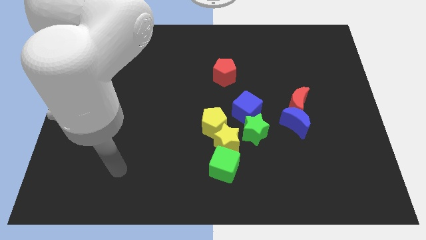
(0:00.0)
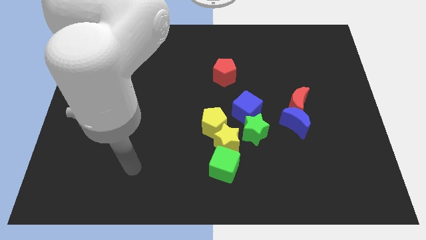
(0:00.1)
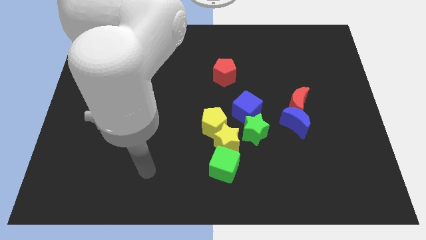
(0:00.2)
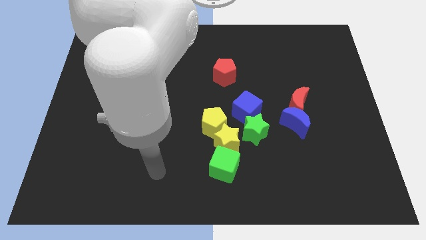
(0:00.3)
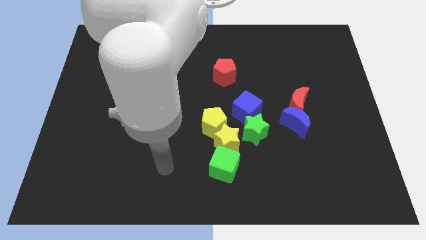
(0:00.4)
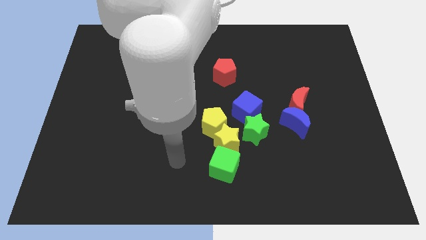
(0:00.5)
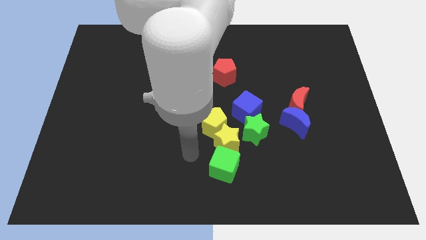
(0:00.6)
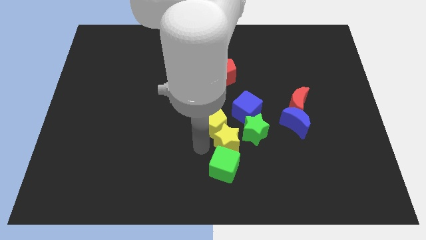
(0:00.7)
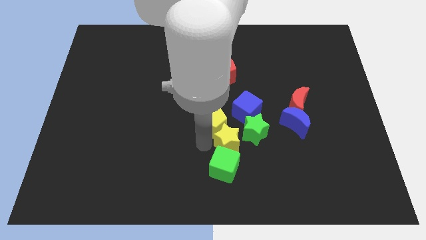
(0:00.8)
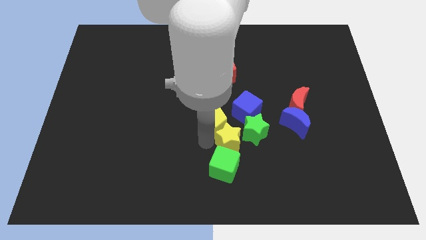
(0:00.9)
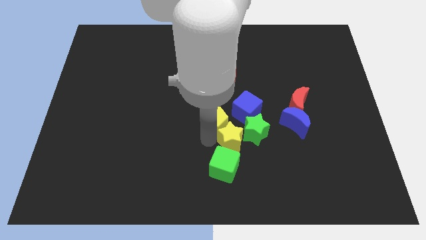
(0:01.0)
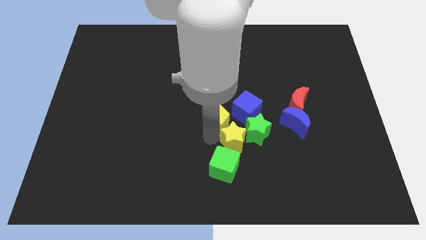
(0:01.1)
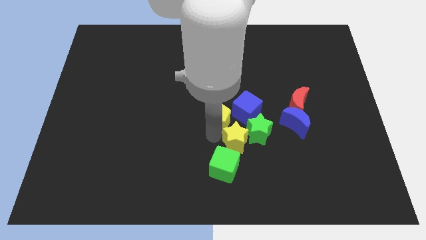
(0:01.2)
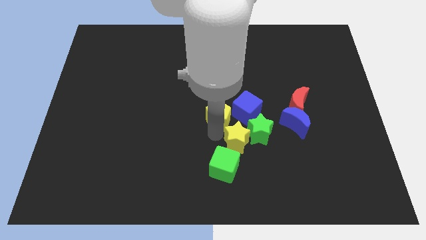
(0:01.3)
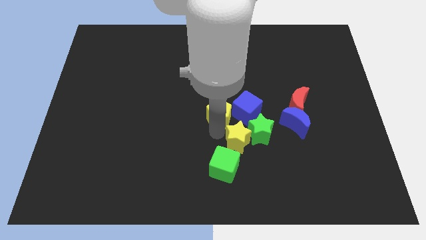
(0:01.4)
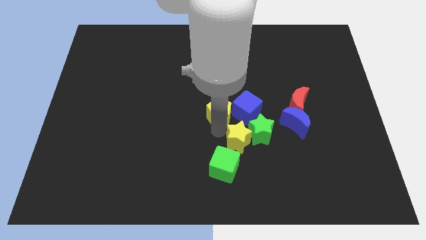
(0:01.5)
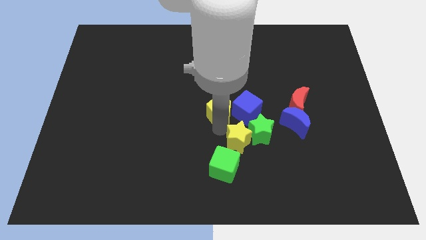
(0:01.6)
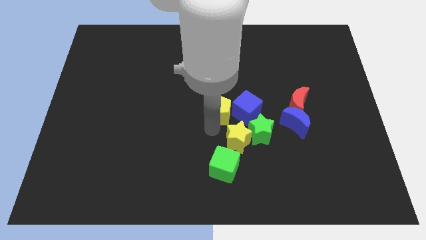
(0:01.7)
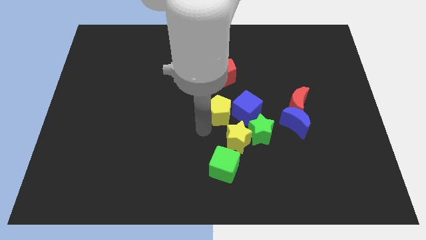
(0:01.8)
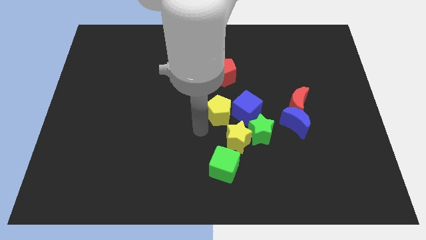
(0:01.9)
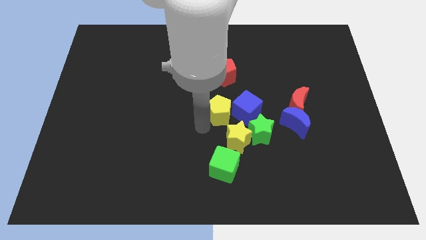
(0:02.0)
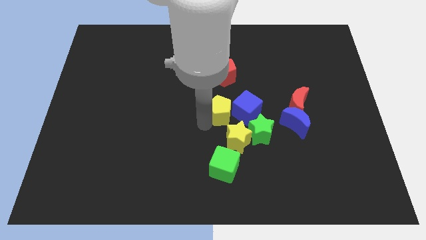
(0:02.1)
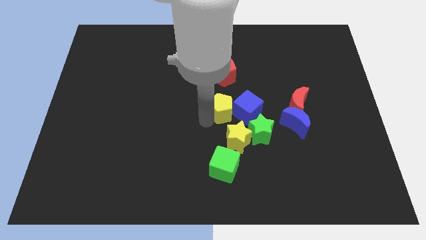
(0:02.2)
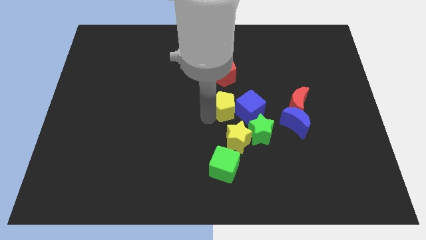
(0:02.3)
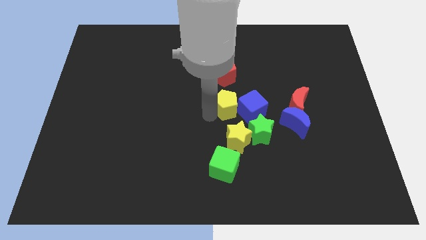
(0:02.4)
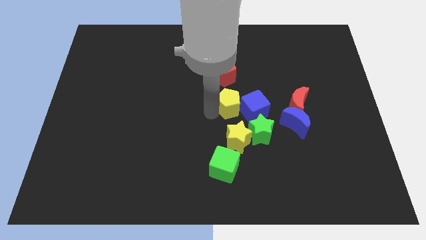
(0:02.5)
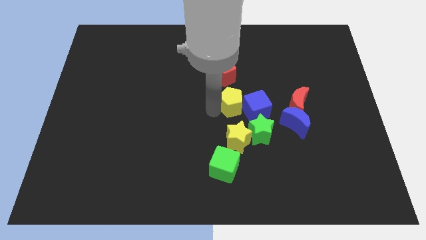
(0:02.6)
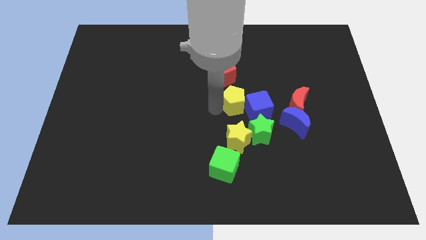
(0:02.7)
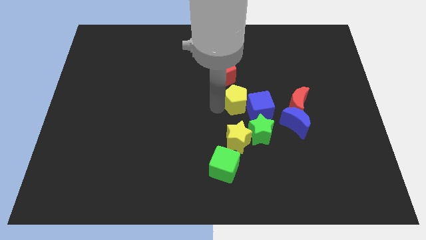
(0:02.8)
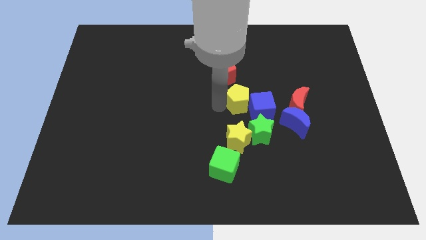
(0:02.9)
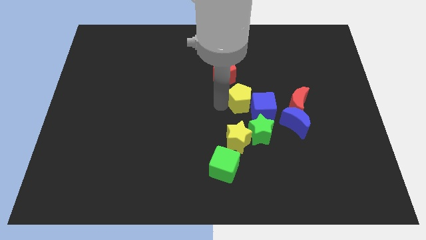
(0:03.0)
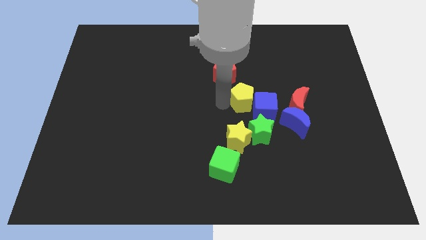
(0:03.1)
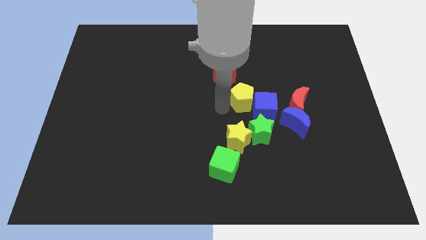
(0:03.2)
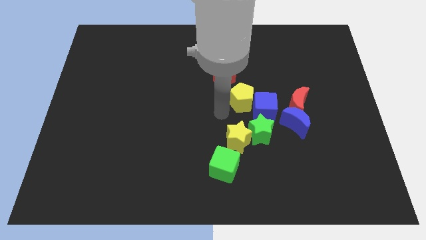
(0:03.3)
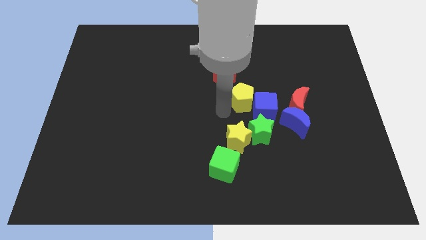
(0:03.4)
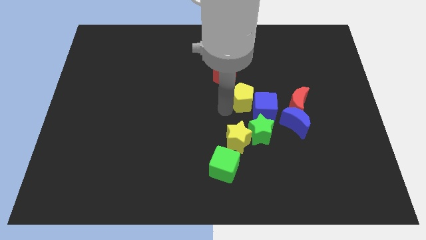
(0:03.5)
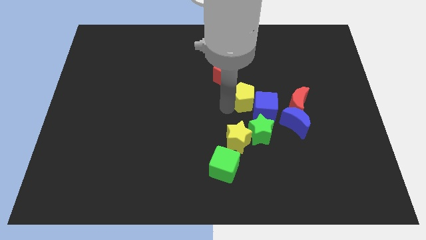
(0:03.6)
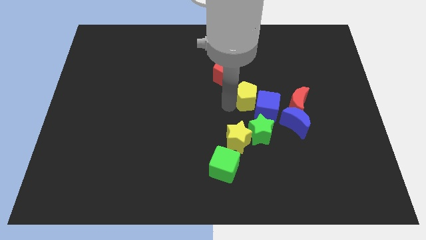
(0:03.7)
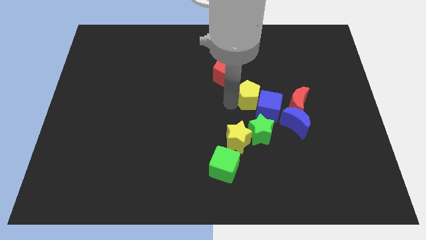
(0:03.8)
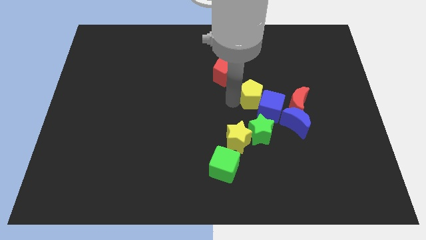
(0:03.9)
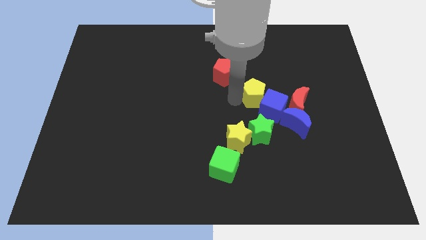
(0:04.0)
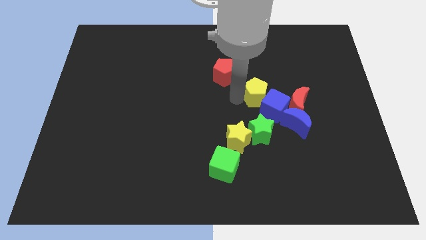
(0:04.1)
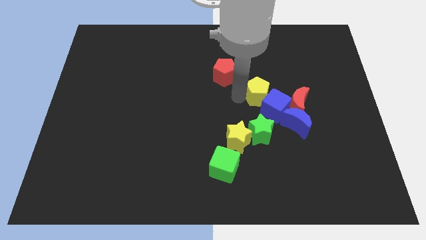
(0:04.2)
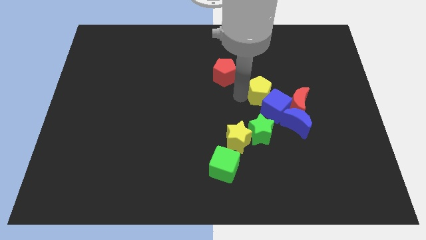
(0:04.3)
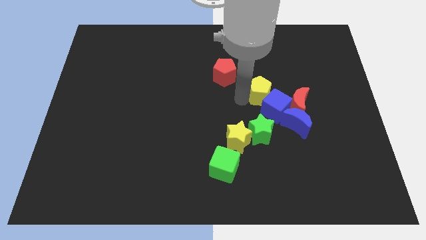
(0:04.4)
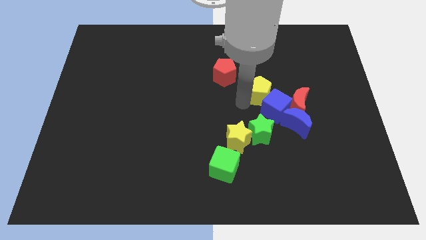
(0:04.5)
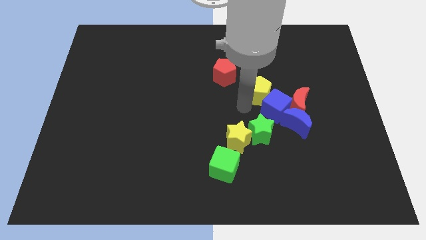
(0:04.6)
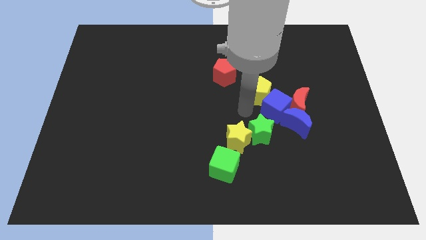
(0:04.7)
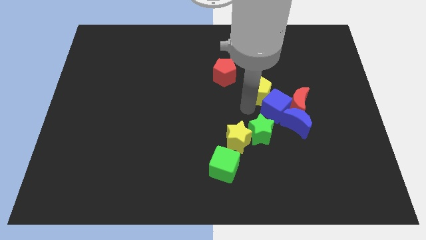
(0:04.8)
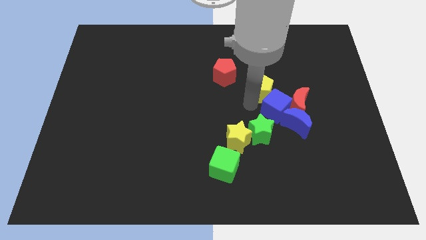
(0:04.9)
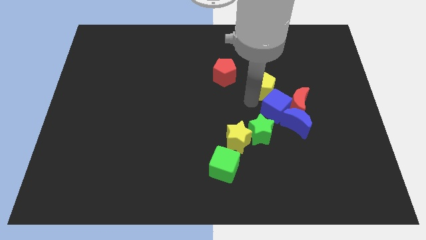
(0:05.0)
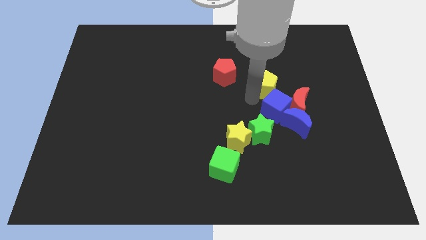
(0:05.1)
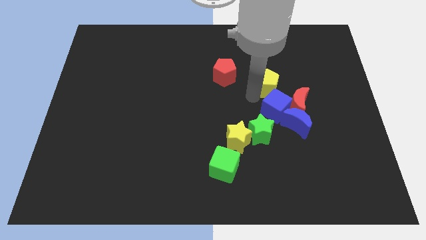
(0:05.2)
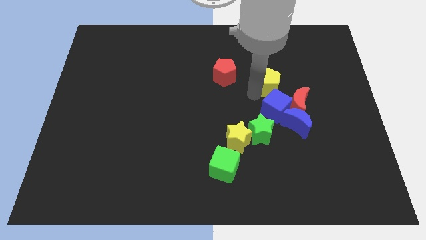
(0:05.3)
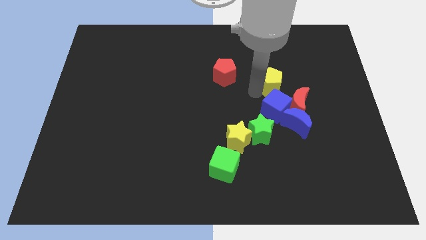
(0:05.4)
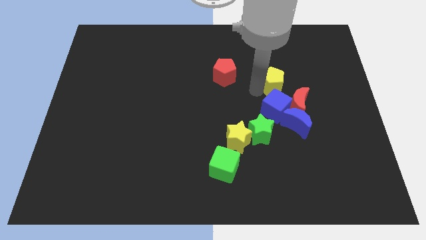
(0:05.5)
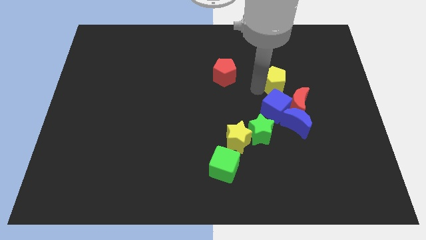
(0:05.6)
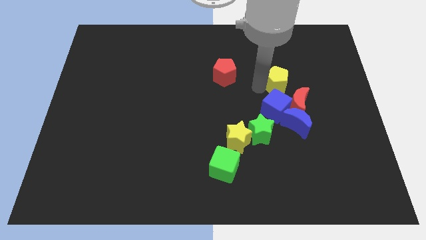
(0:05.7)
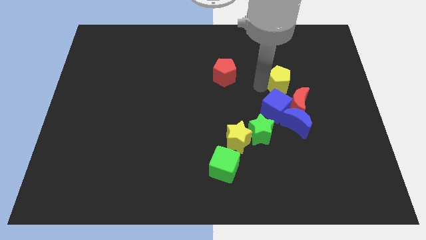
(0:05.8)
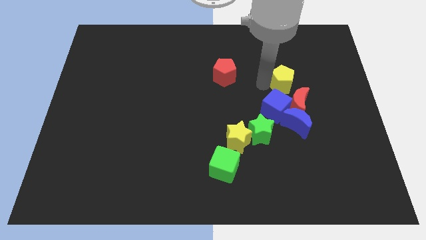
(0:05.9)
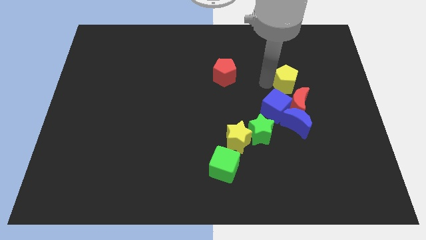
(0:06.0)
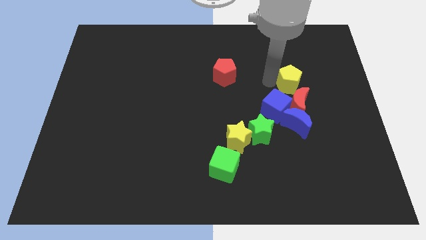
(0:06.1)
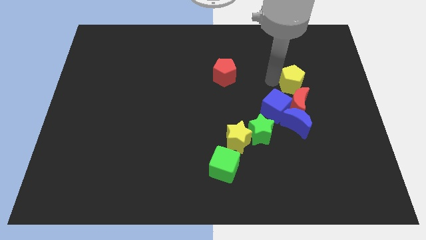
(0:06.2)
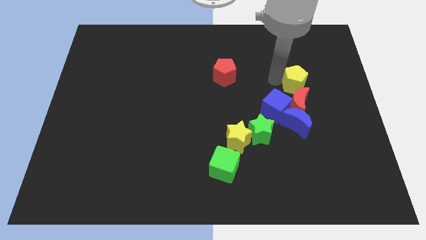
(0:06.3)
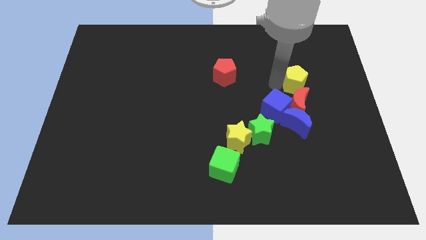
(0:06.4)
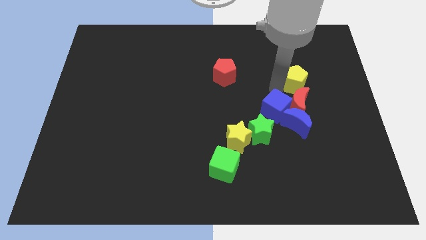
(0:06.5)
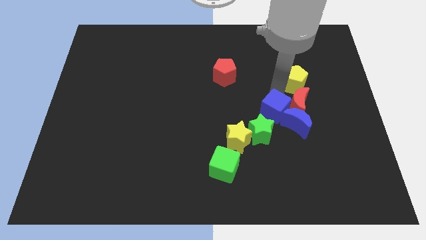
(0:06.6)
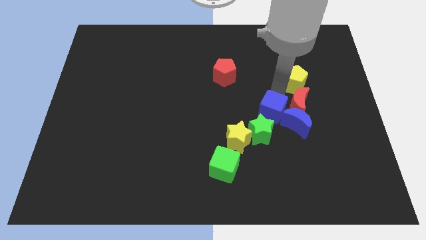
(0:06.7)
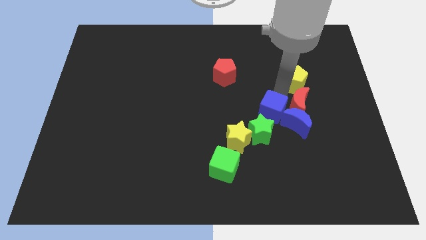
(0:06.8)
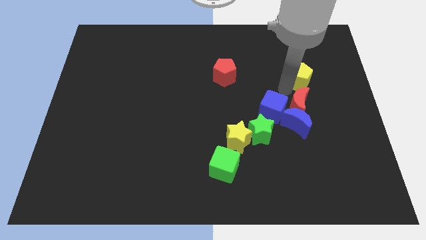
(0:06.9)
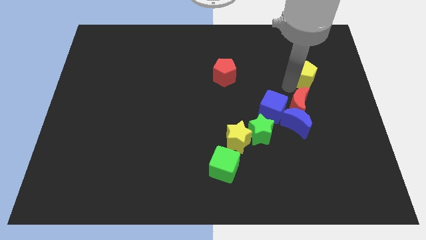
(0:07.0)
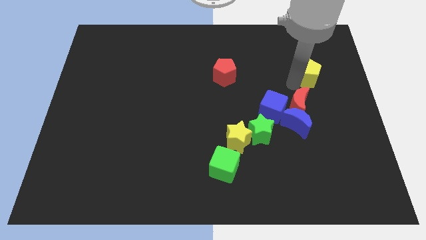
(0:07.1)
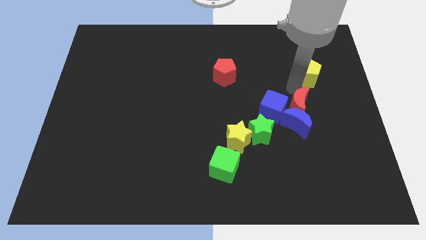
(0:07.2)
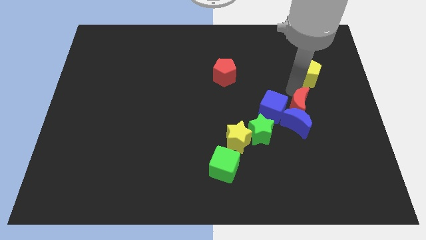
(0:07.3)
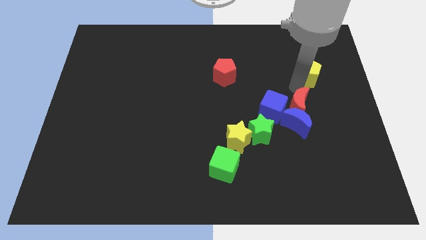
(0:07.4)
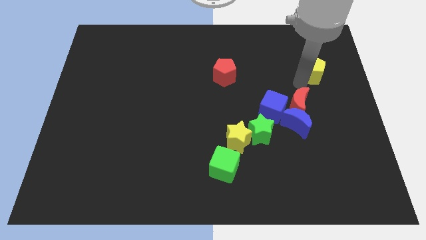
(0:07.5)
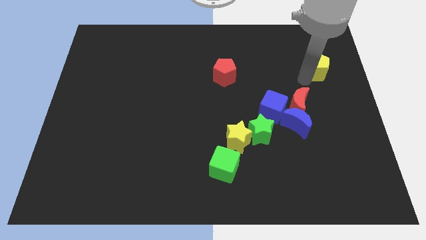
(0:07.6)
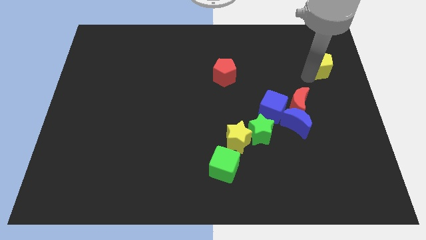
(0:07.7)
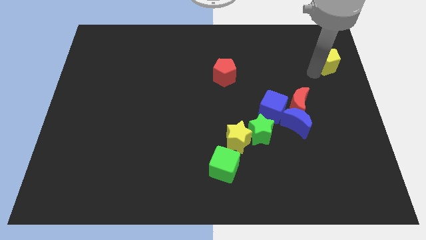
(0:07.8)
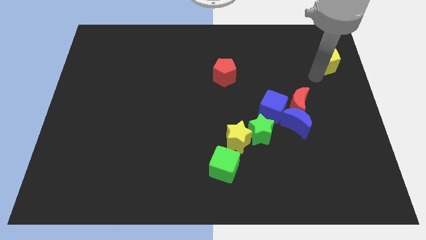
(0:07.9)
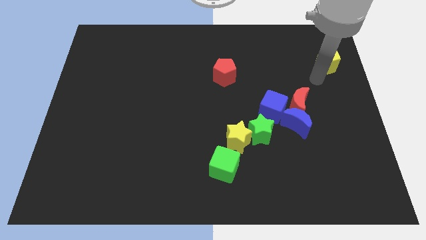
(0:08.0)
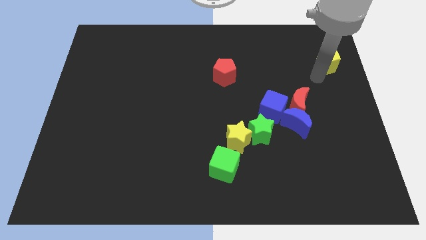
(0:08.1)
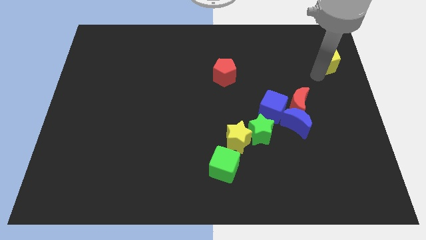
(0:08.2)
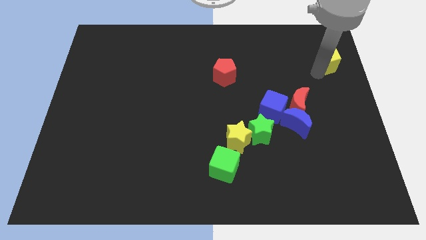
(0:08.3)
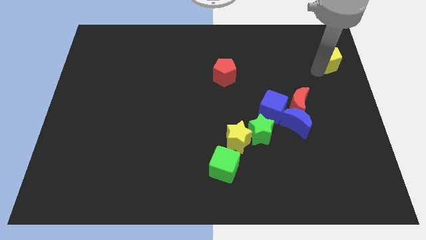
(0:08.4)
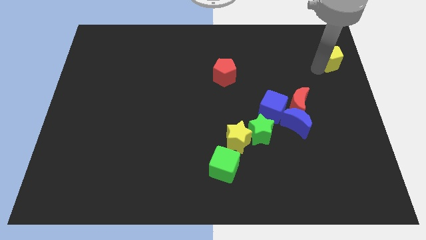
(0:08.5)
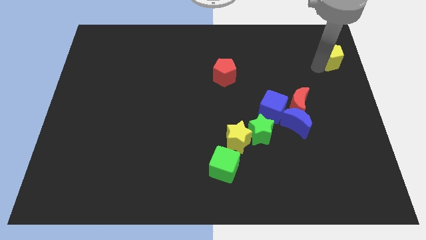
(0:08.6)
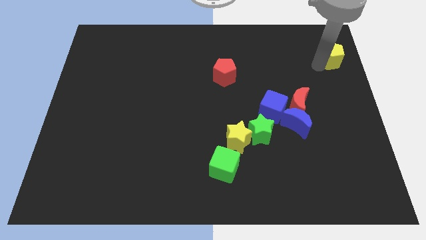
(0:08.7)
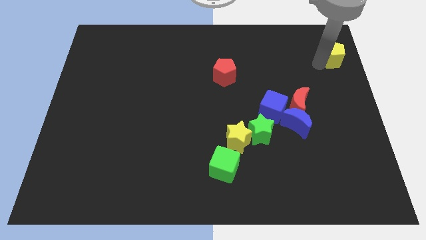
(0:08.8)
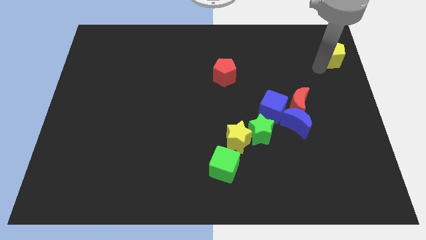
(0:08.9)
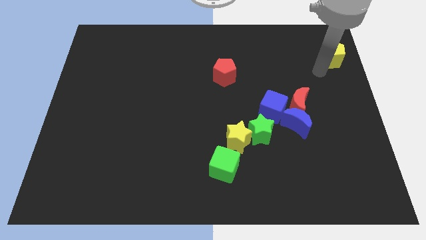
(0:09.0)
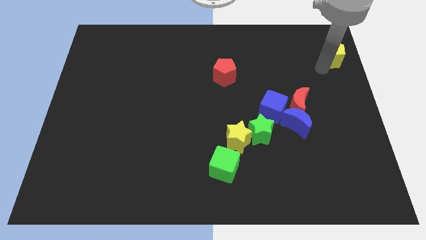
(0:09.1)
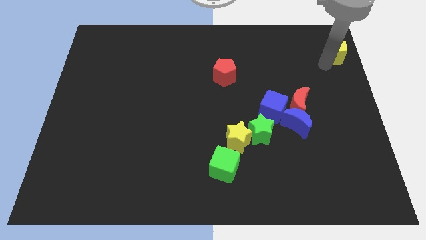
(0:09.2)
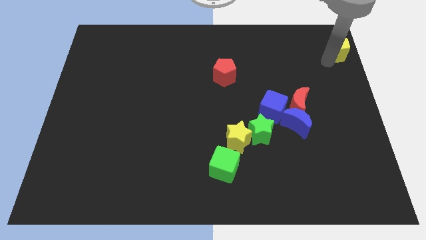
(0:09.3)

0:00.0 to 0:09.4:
put the yellow pentagon to the top right
